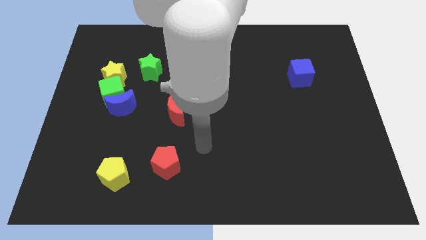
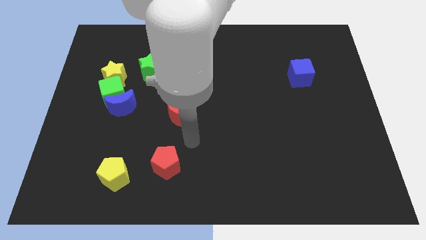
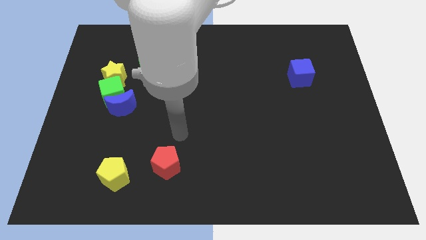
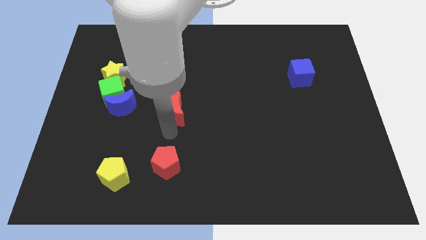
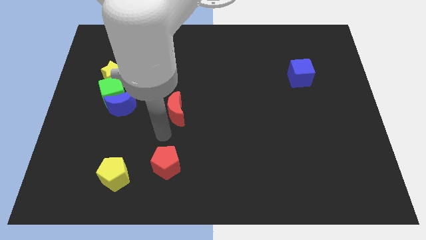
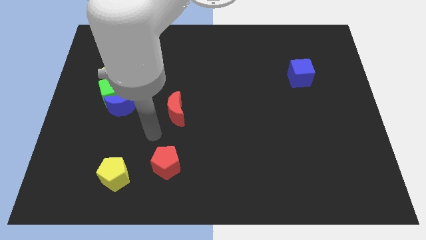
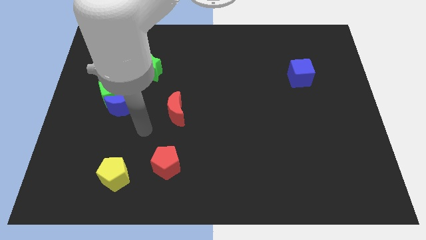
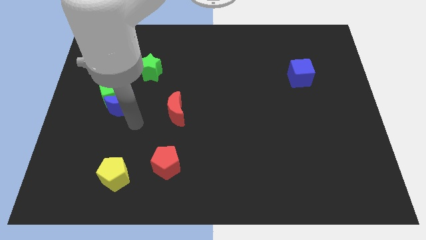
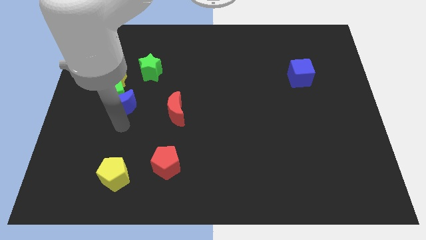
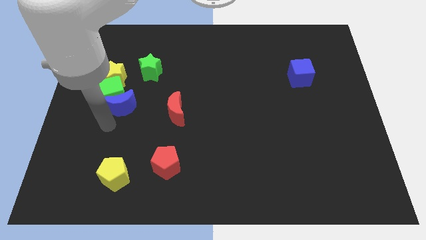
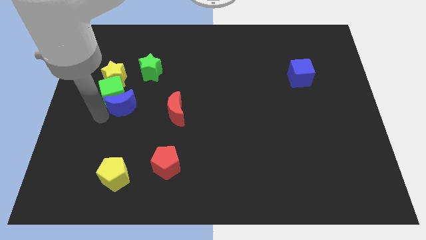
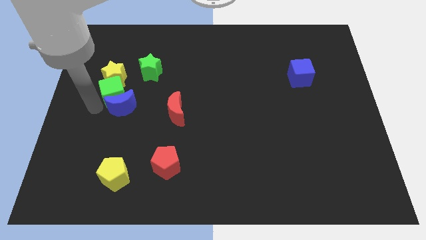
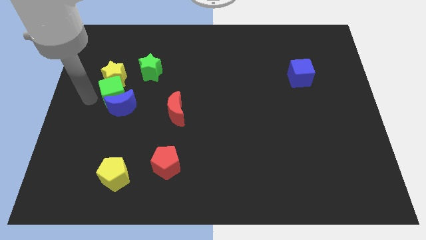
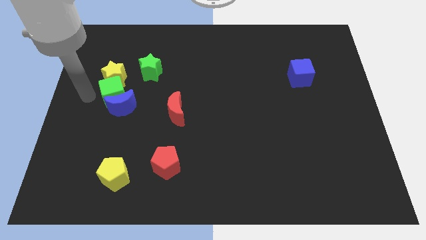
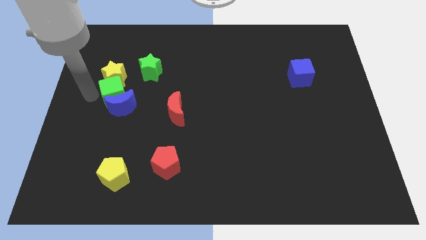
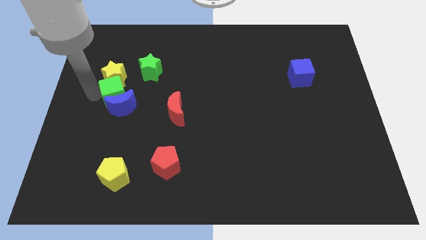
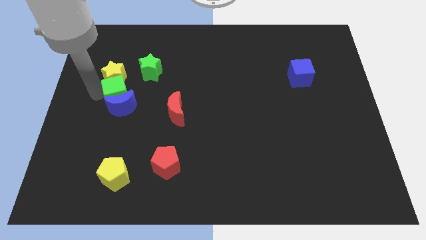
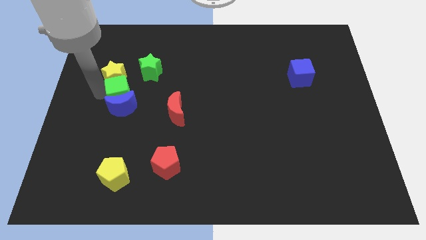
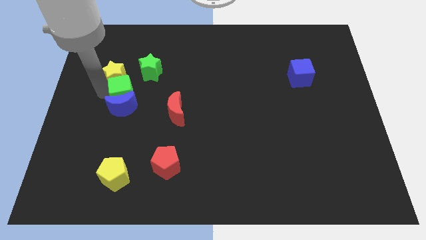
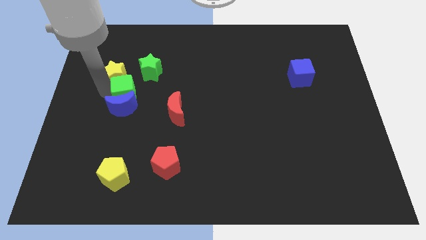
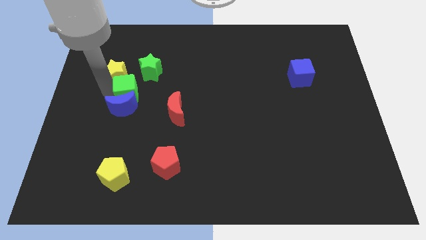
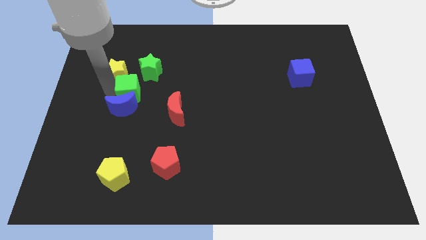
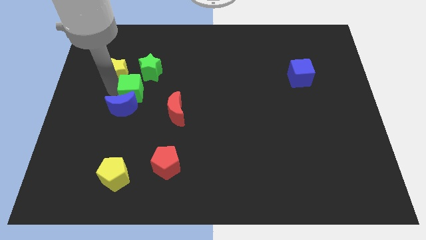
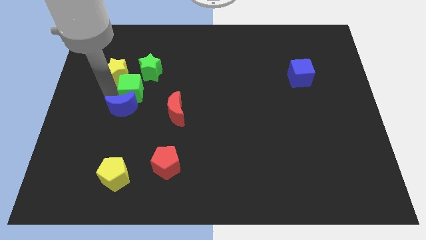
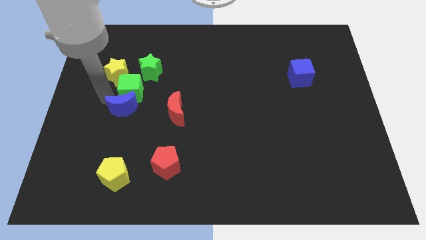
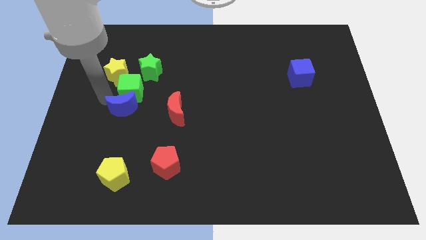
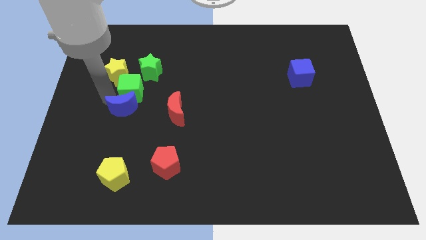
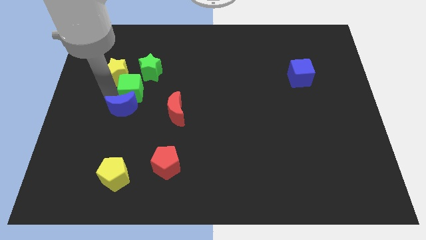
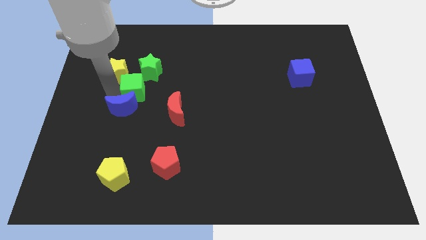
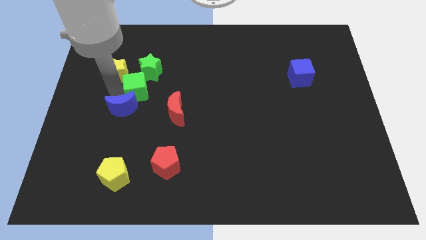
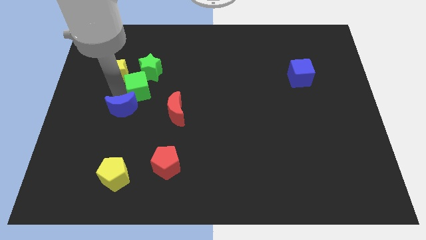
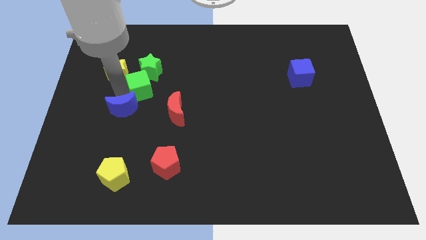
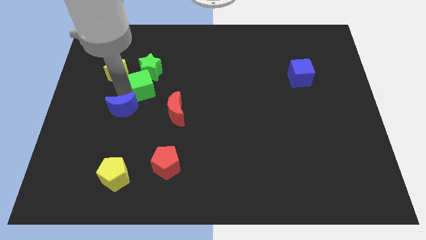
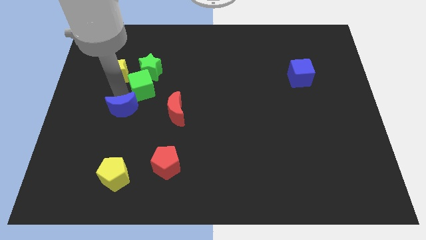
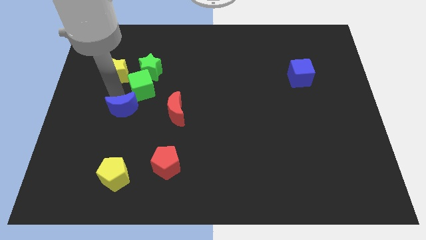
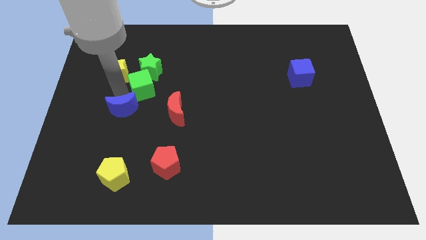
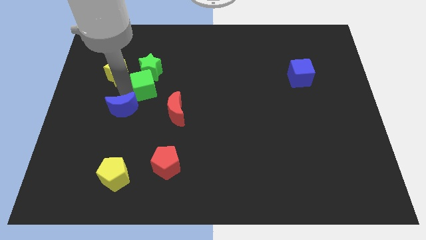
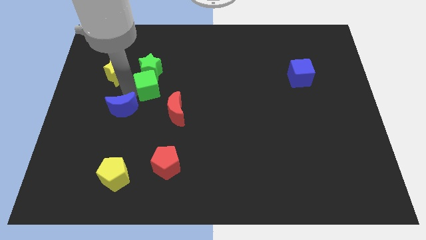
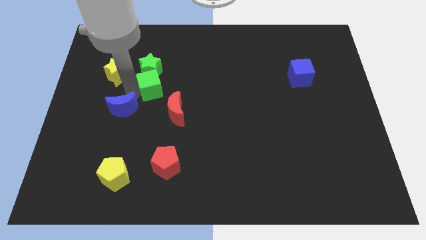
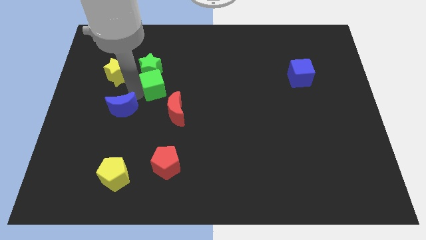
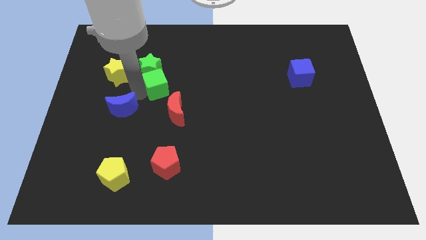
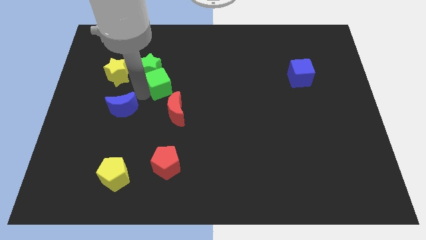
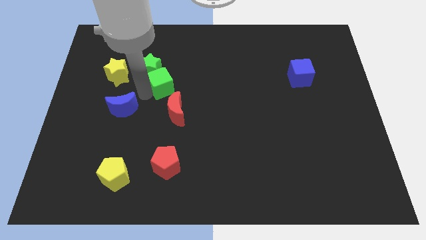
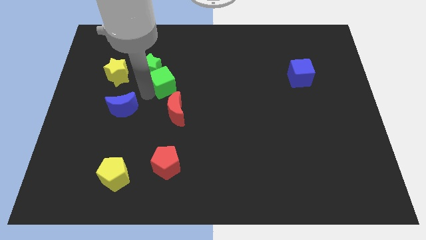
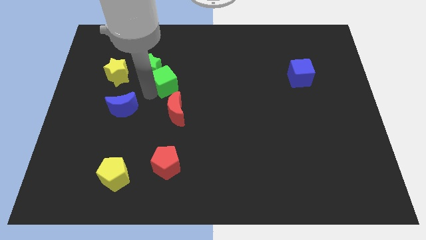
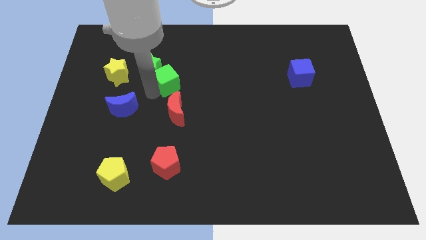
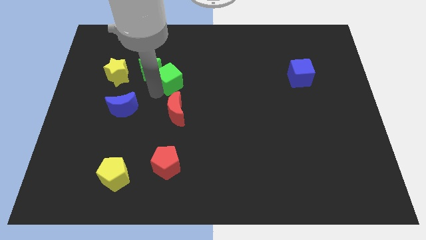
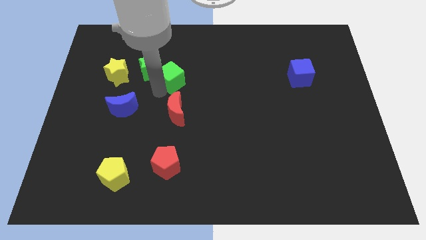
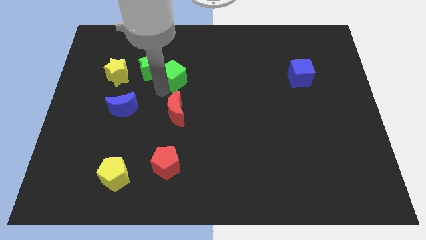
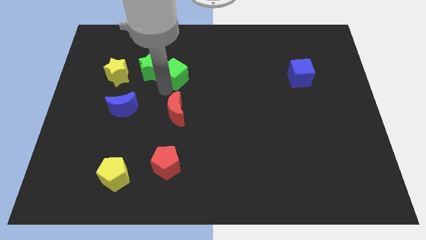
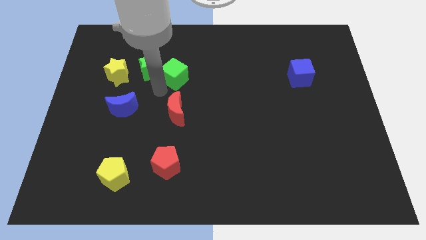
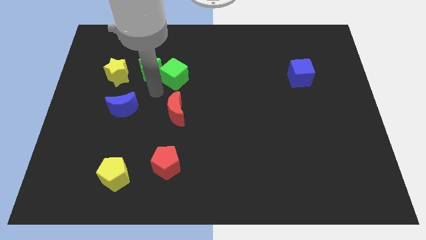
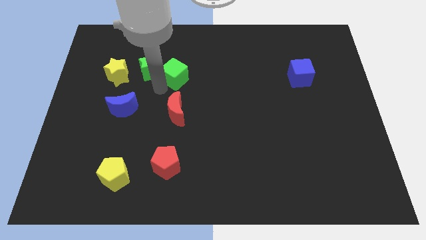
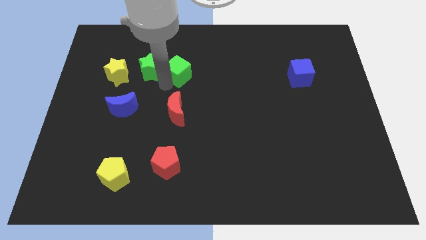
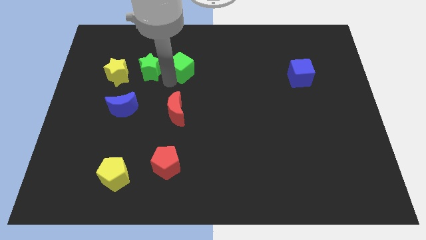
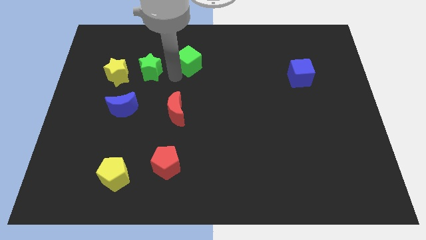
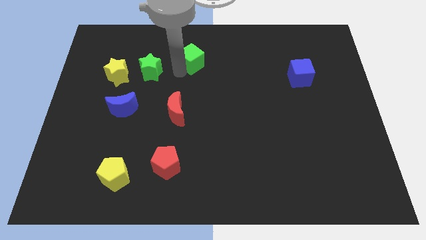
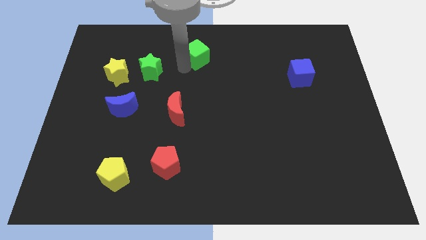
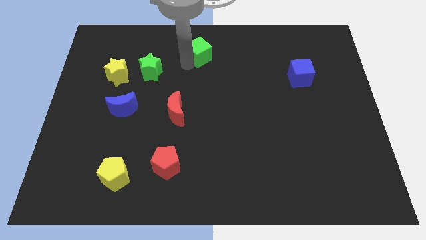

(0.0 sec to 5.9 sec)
move the green cube to the top side
